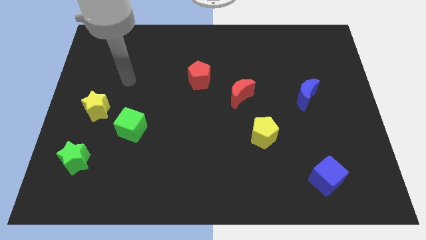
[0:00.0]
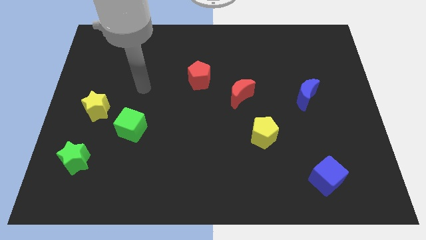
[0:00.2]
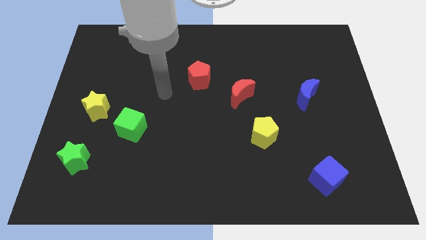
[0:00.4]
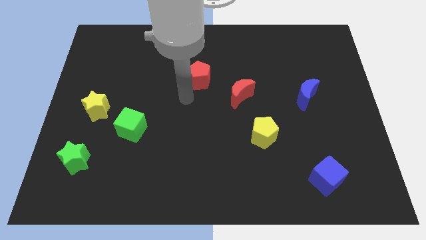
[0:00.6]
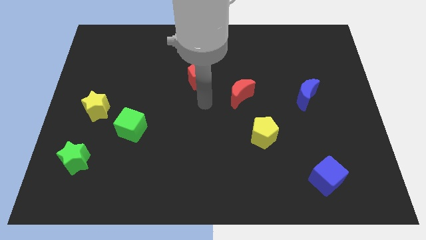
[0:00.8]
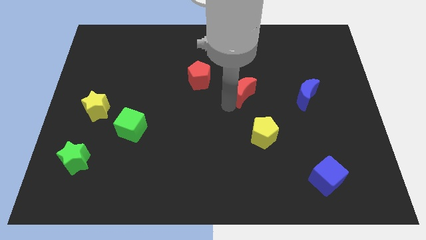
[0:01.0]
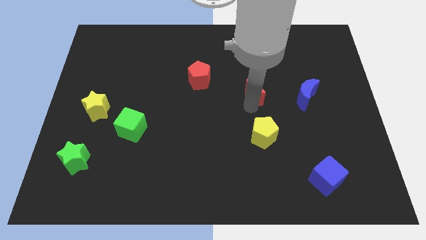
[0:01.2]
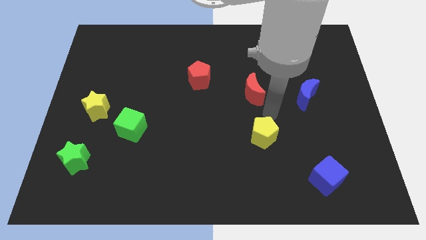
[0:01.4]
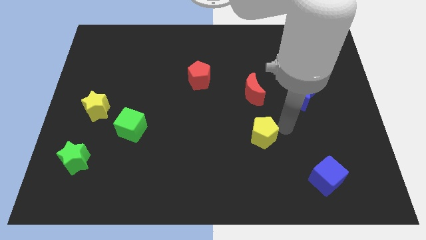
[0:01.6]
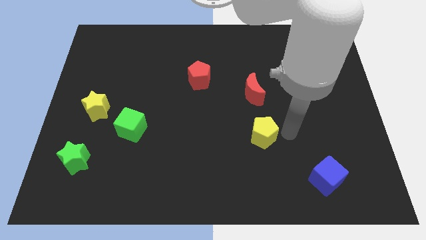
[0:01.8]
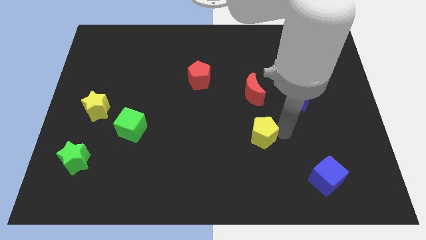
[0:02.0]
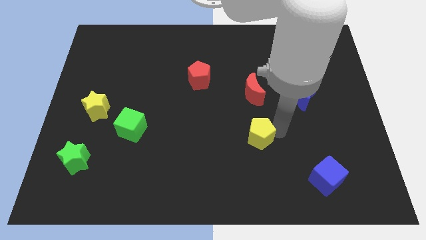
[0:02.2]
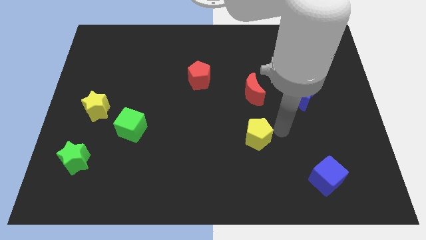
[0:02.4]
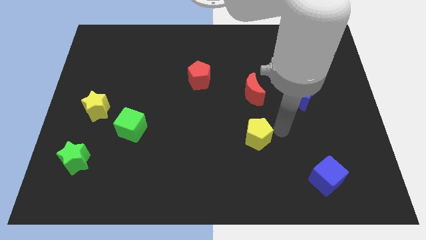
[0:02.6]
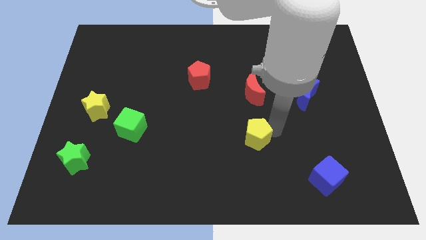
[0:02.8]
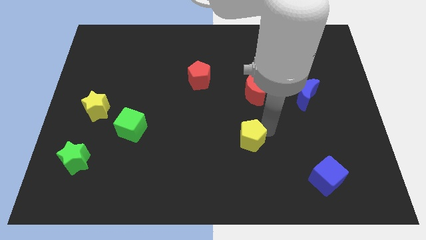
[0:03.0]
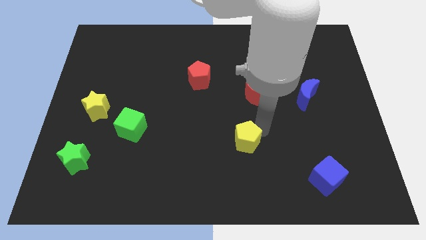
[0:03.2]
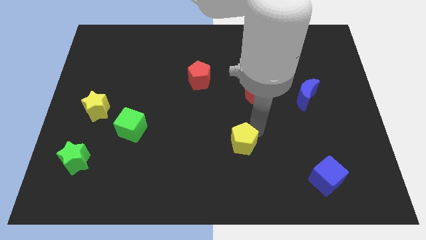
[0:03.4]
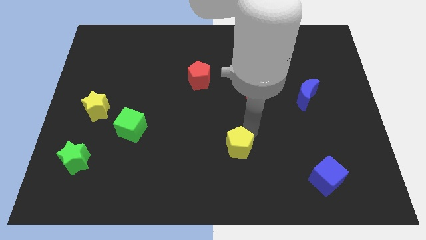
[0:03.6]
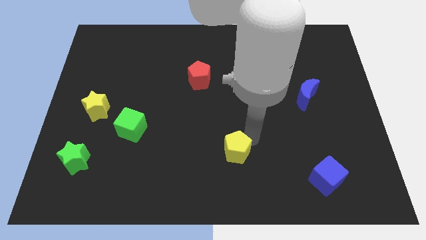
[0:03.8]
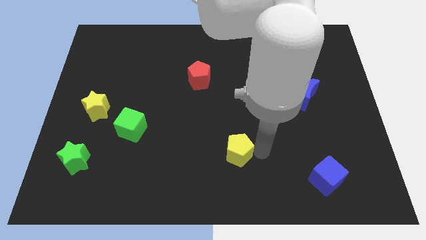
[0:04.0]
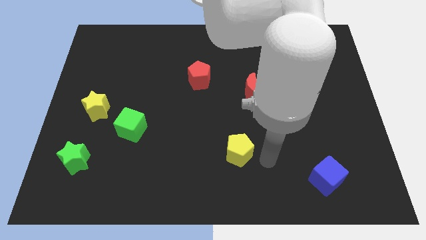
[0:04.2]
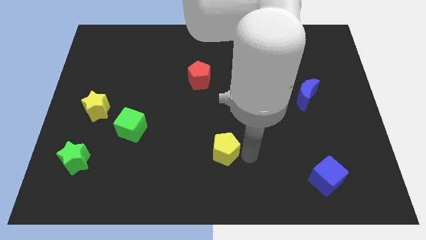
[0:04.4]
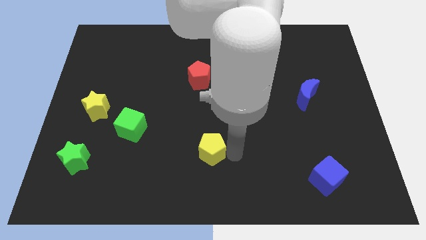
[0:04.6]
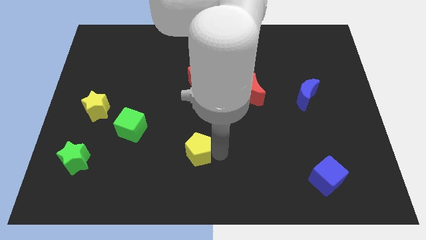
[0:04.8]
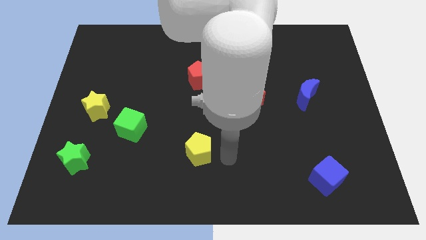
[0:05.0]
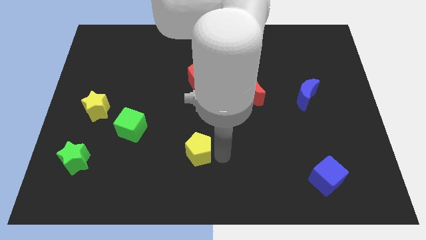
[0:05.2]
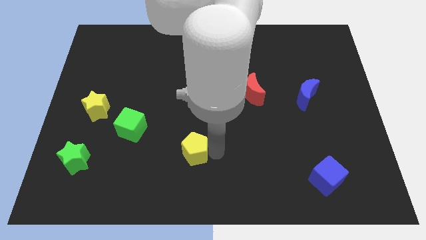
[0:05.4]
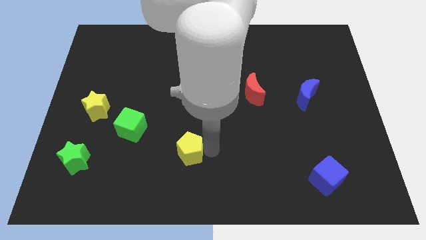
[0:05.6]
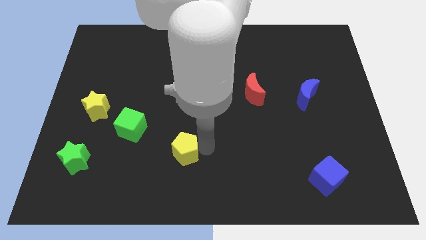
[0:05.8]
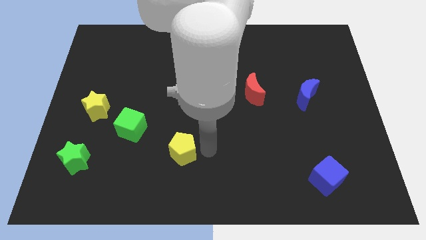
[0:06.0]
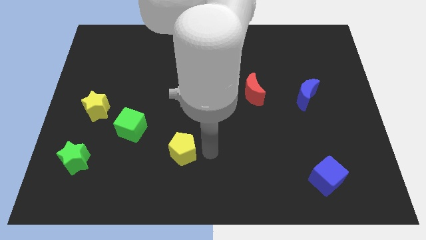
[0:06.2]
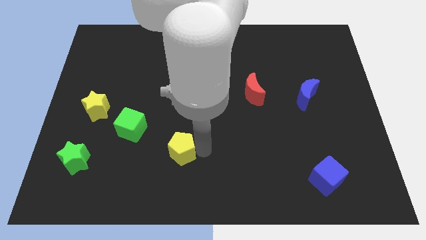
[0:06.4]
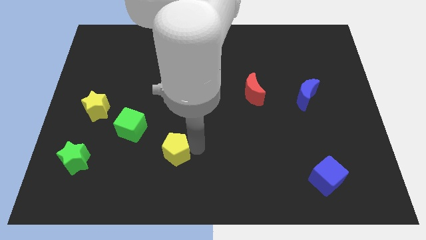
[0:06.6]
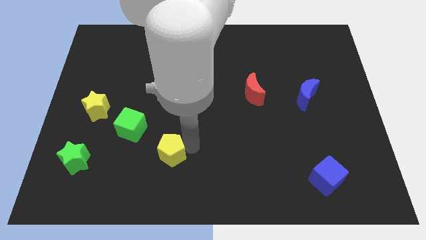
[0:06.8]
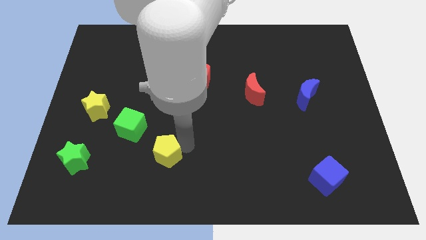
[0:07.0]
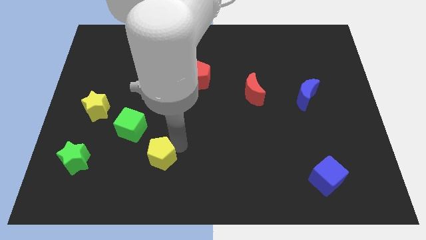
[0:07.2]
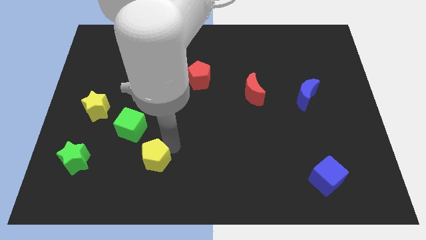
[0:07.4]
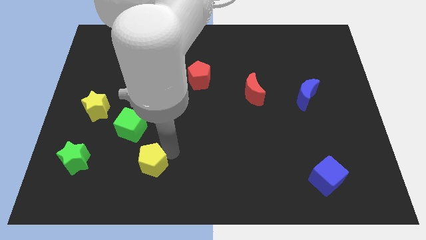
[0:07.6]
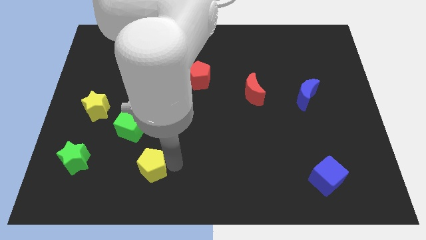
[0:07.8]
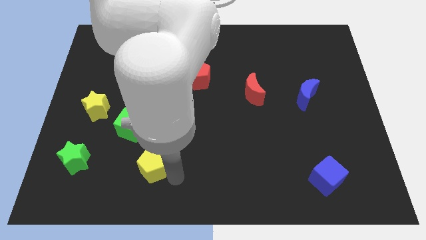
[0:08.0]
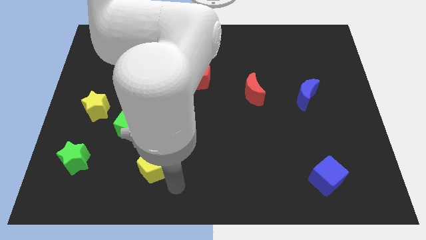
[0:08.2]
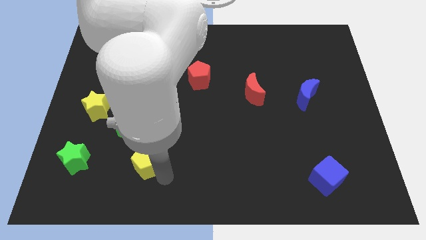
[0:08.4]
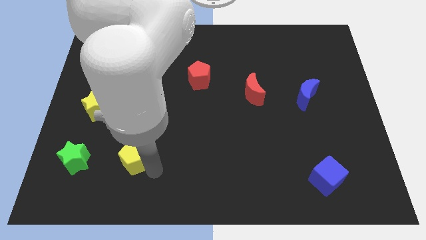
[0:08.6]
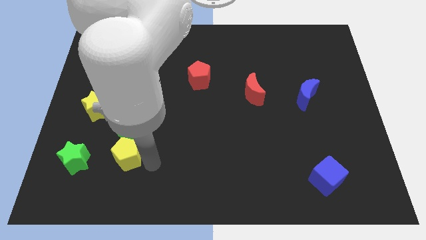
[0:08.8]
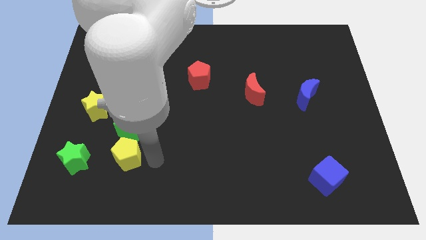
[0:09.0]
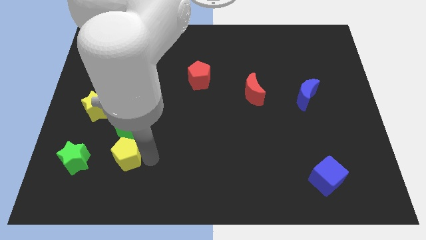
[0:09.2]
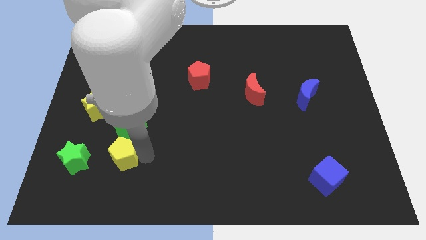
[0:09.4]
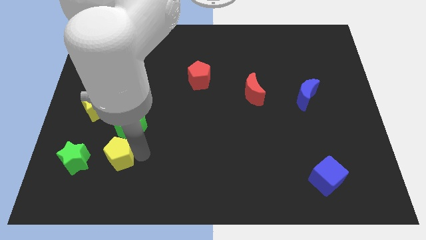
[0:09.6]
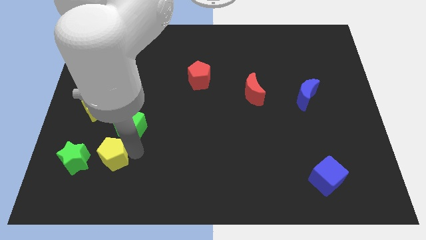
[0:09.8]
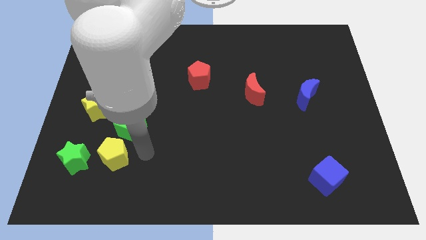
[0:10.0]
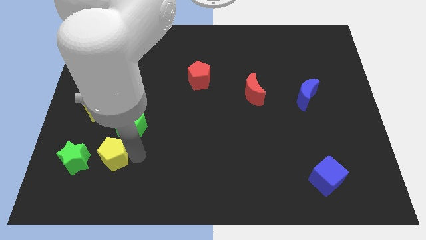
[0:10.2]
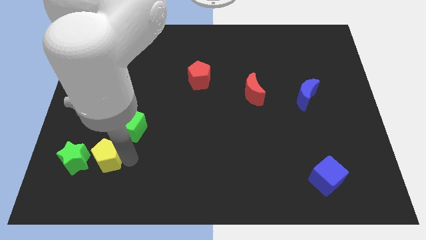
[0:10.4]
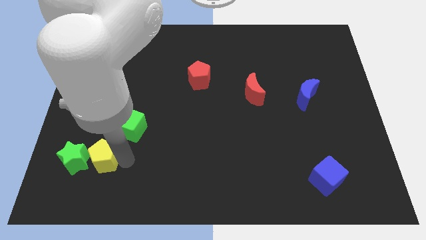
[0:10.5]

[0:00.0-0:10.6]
push the yellow pentagon to the green star

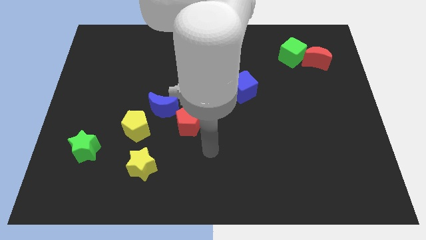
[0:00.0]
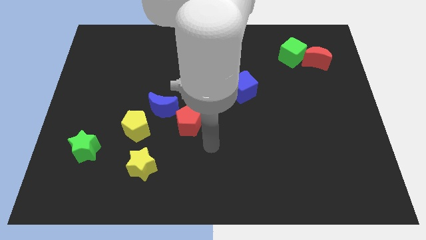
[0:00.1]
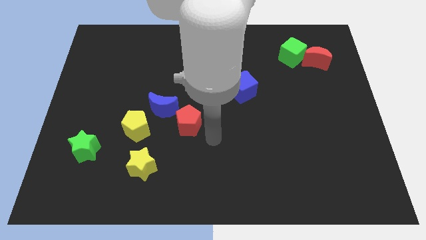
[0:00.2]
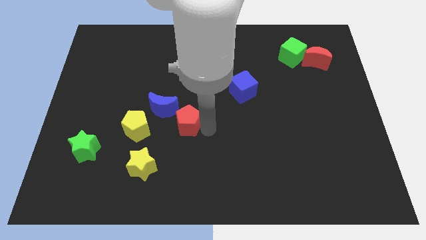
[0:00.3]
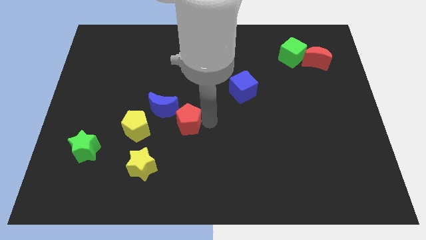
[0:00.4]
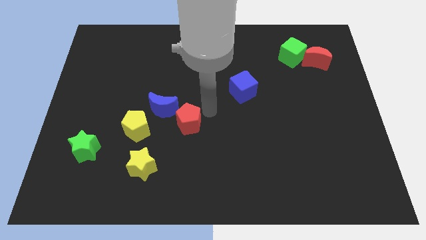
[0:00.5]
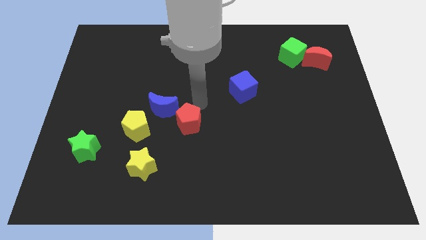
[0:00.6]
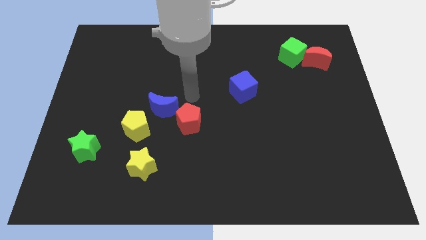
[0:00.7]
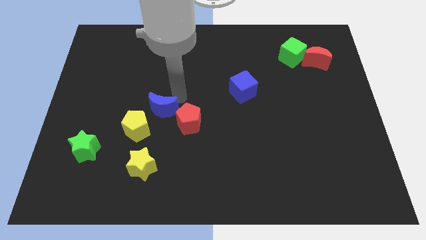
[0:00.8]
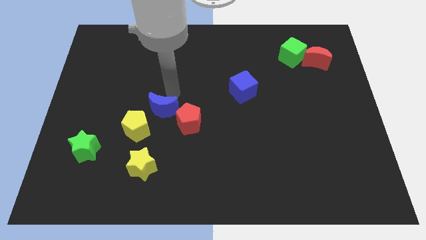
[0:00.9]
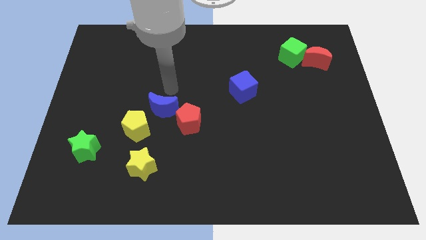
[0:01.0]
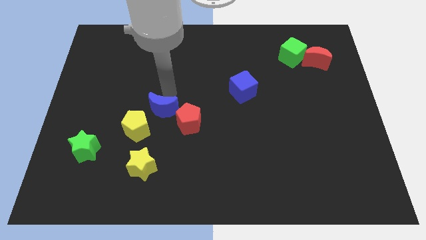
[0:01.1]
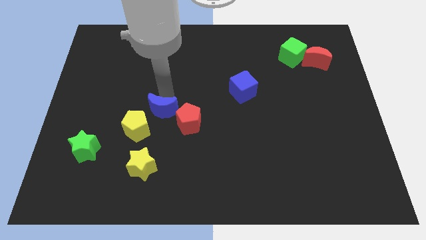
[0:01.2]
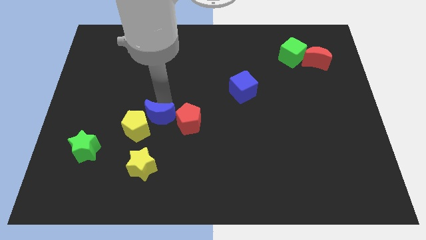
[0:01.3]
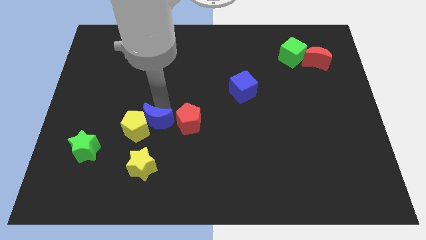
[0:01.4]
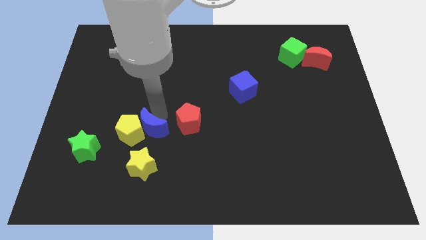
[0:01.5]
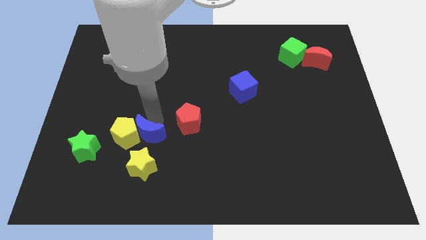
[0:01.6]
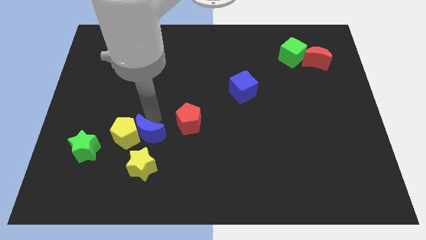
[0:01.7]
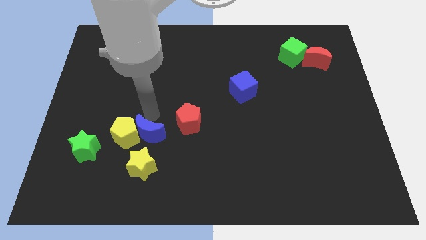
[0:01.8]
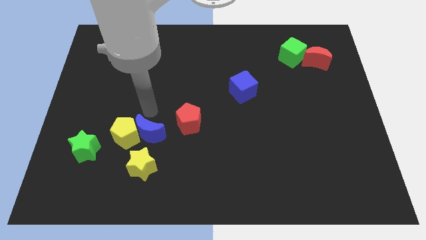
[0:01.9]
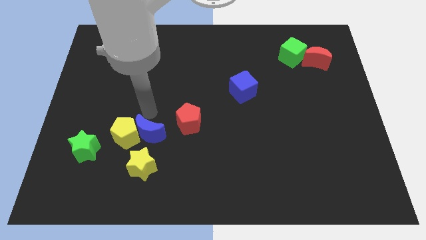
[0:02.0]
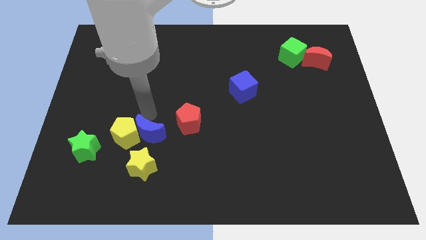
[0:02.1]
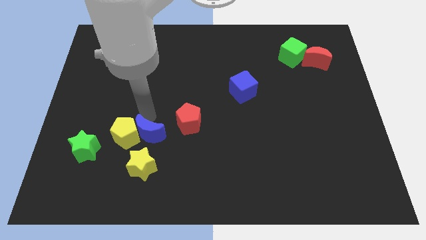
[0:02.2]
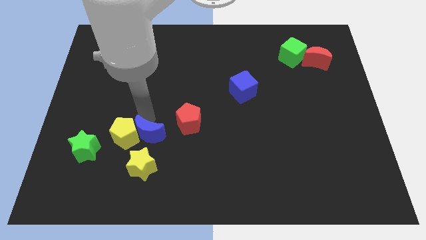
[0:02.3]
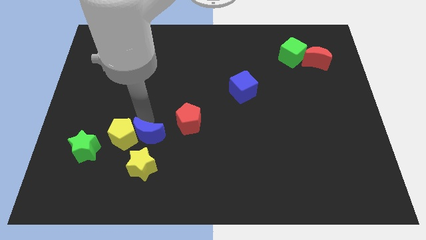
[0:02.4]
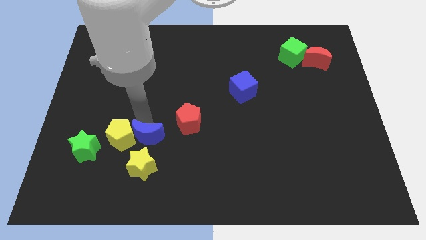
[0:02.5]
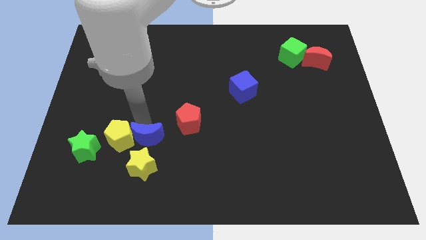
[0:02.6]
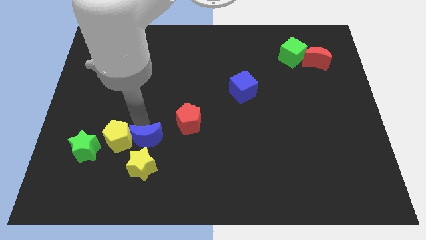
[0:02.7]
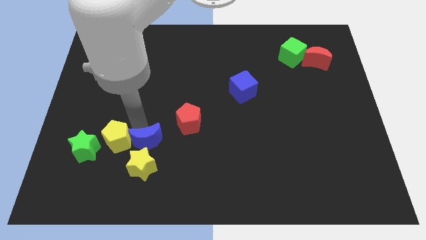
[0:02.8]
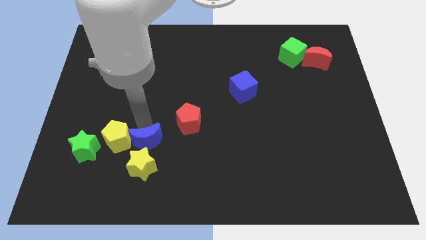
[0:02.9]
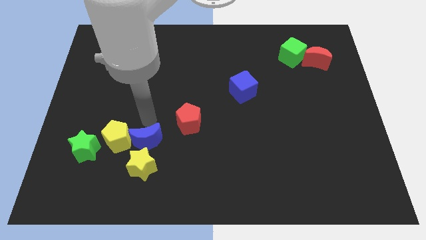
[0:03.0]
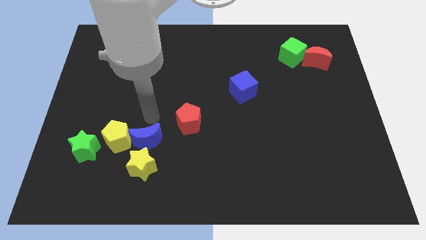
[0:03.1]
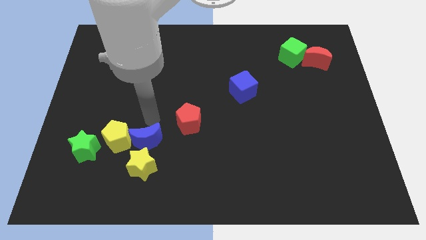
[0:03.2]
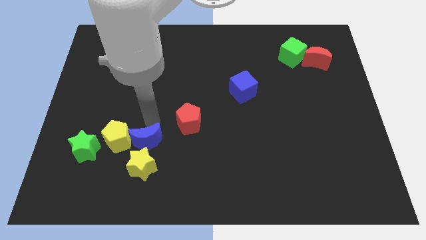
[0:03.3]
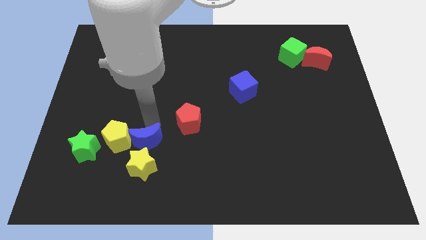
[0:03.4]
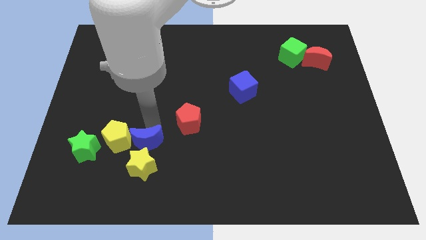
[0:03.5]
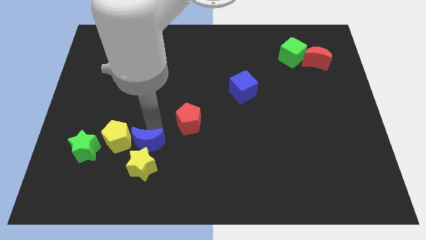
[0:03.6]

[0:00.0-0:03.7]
put the blue moon close to the yellow star
